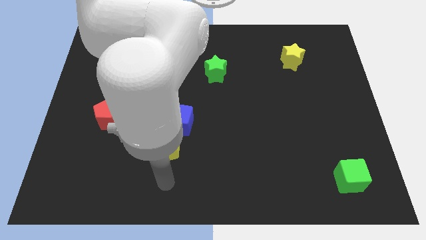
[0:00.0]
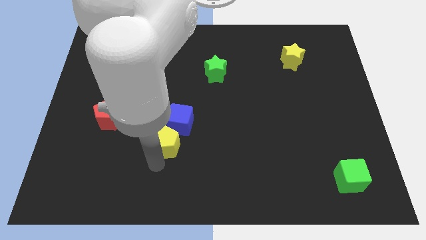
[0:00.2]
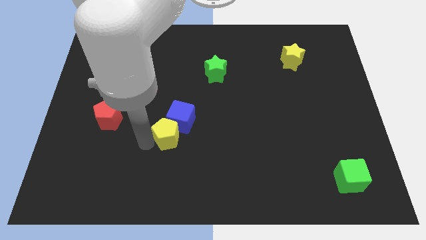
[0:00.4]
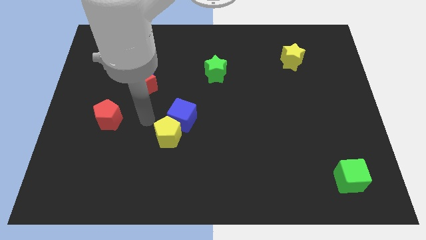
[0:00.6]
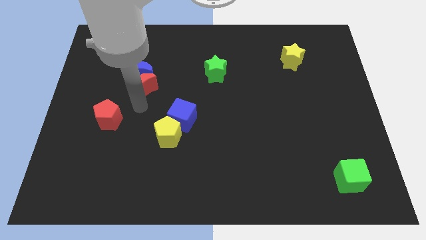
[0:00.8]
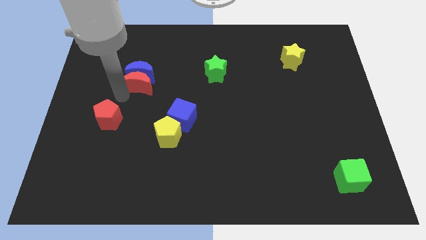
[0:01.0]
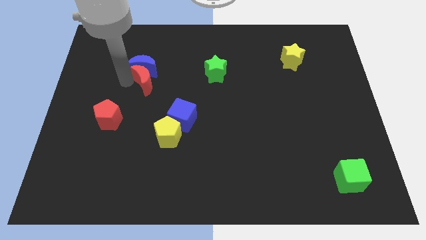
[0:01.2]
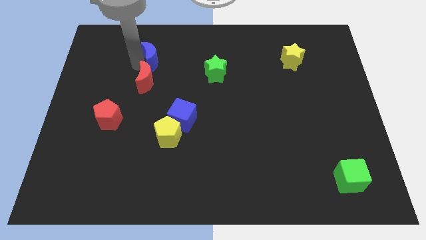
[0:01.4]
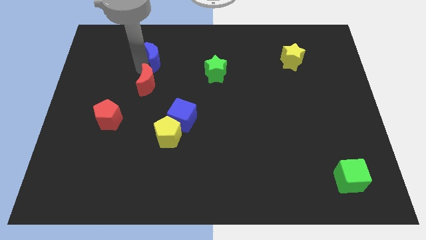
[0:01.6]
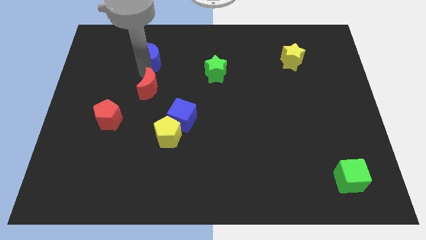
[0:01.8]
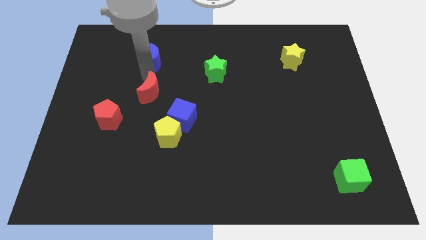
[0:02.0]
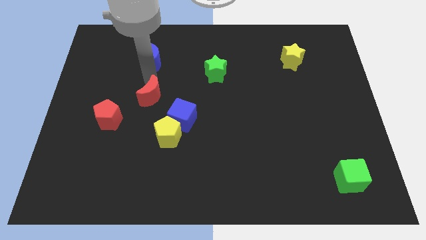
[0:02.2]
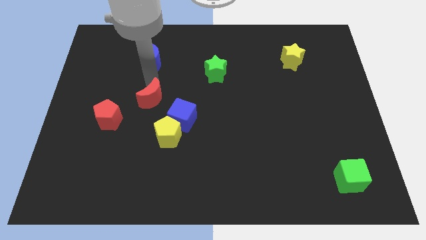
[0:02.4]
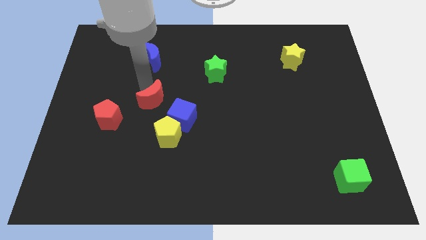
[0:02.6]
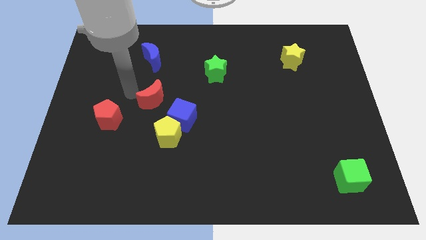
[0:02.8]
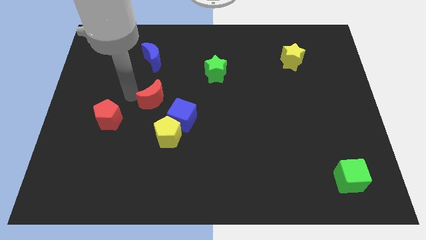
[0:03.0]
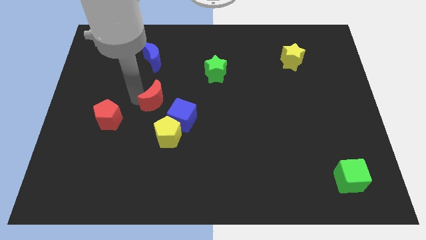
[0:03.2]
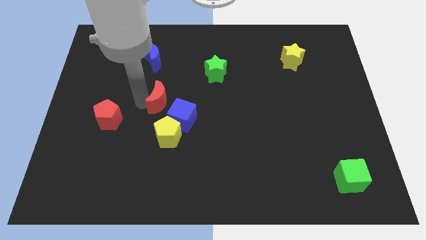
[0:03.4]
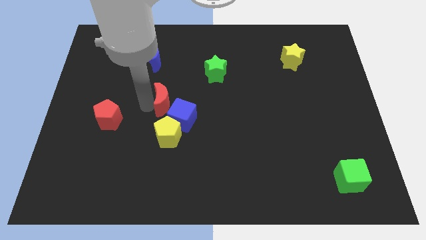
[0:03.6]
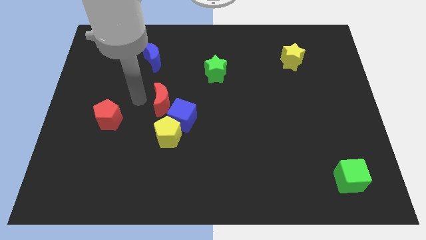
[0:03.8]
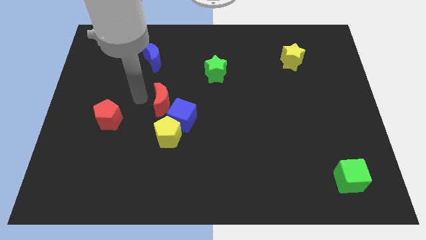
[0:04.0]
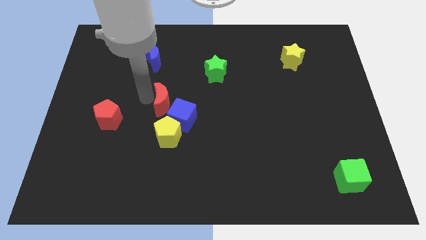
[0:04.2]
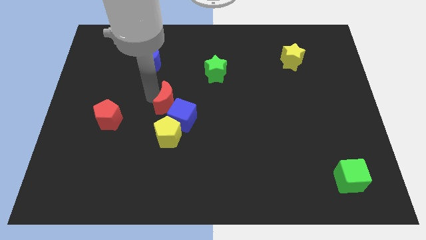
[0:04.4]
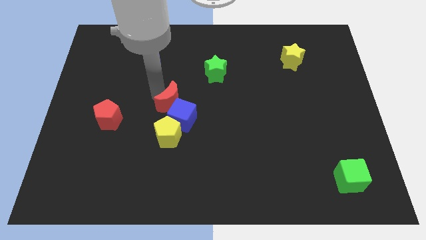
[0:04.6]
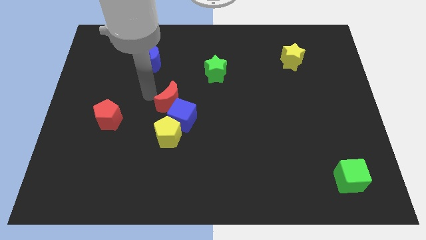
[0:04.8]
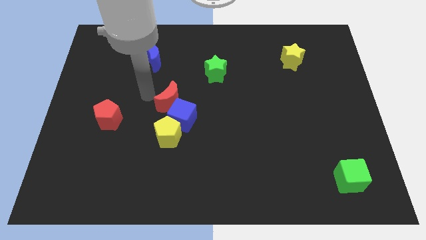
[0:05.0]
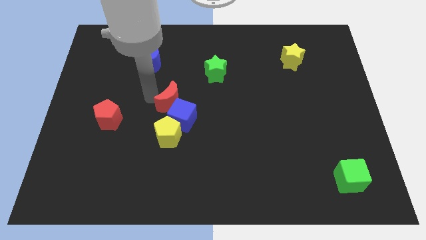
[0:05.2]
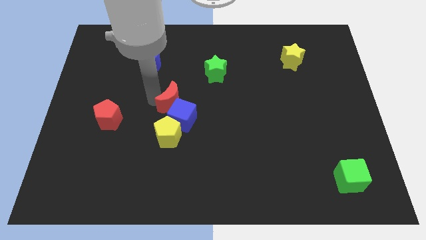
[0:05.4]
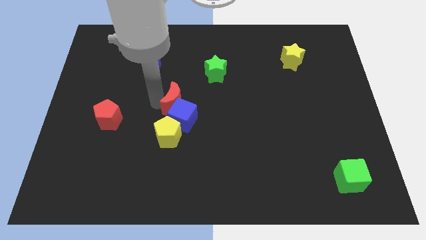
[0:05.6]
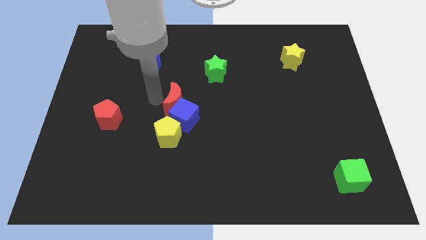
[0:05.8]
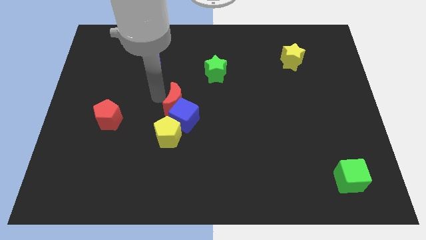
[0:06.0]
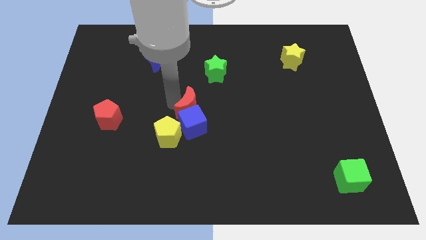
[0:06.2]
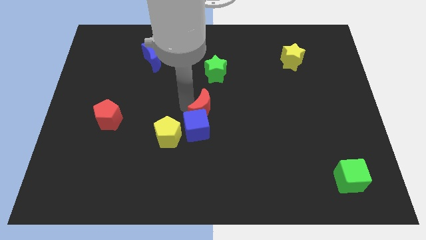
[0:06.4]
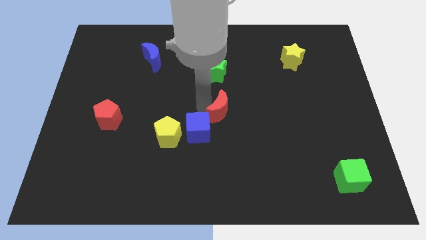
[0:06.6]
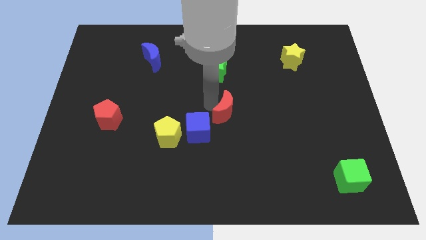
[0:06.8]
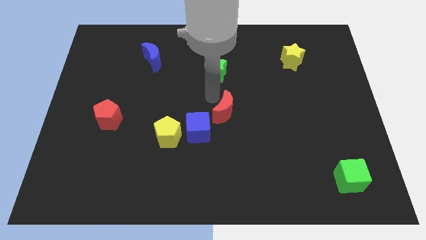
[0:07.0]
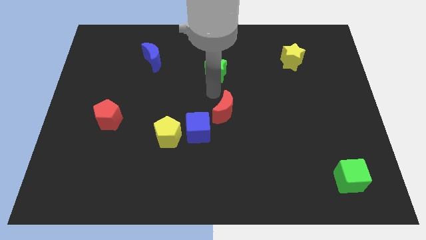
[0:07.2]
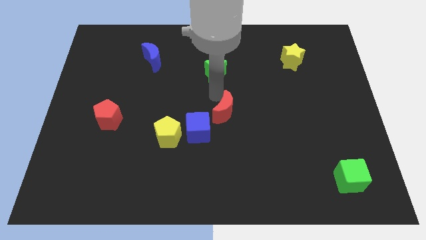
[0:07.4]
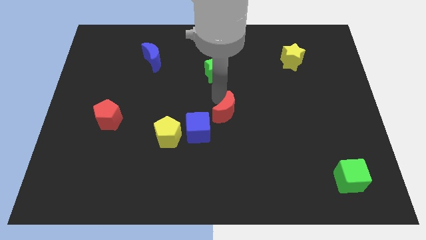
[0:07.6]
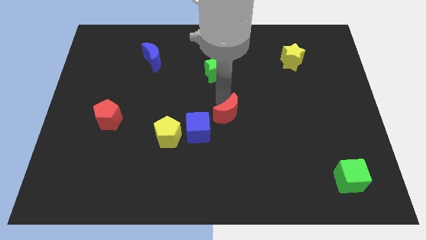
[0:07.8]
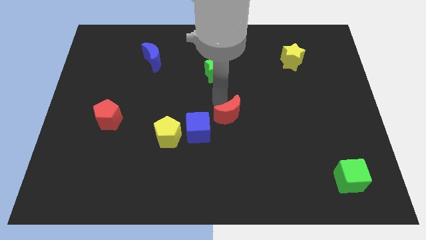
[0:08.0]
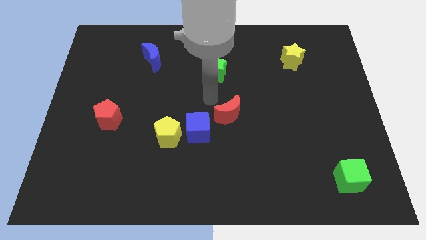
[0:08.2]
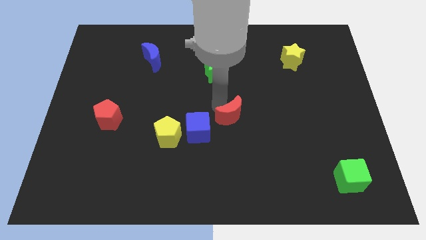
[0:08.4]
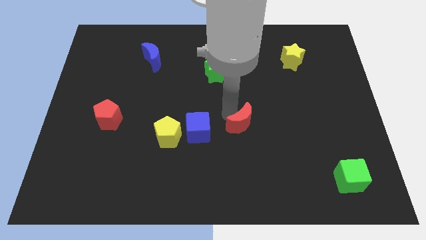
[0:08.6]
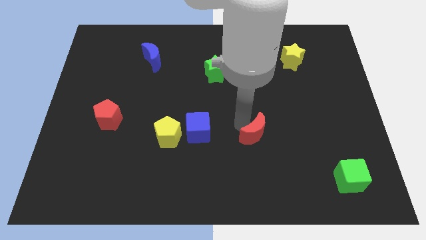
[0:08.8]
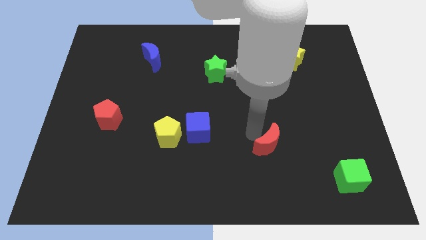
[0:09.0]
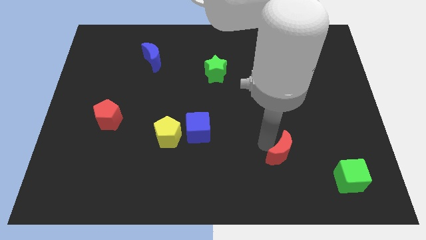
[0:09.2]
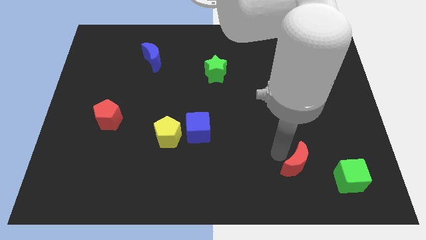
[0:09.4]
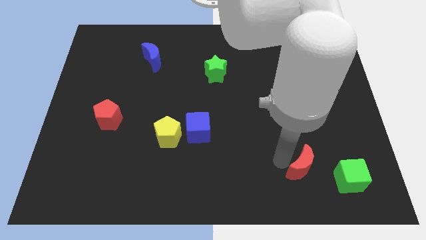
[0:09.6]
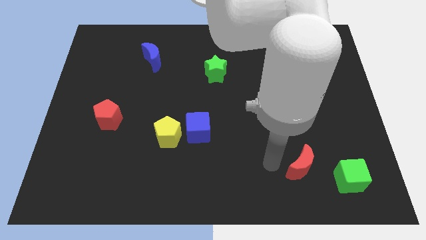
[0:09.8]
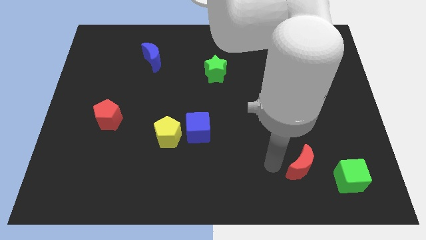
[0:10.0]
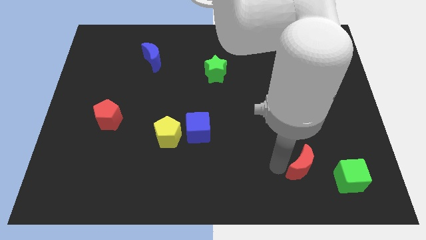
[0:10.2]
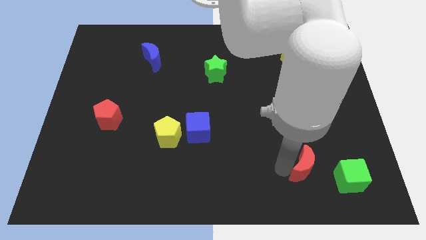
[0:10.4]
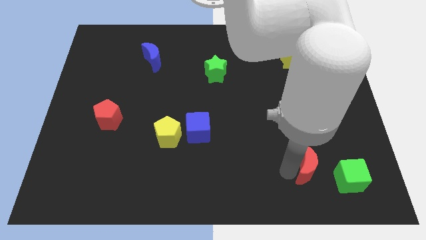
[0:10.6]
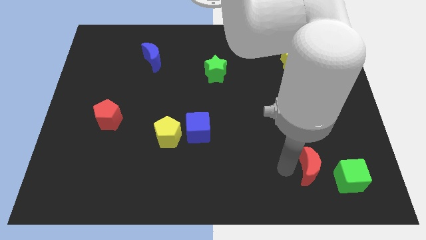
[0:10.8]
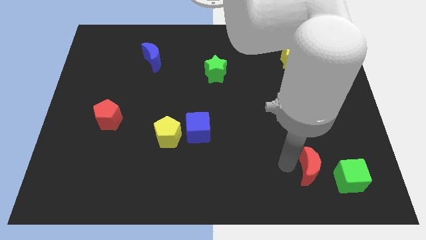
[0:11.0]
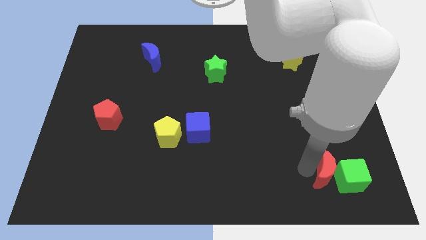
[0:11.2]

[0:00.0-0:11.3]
put the red moon close to the green cube

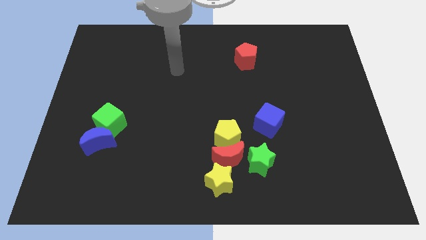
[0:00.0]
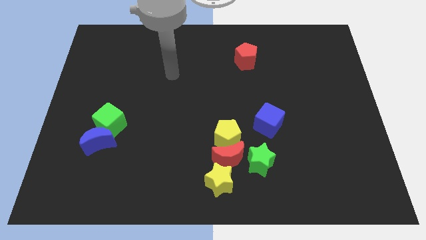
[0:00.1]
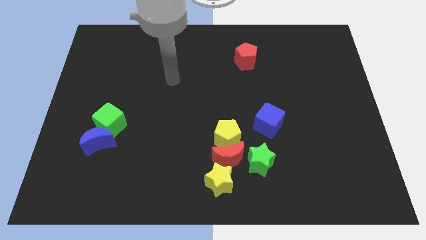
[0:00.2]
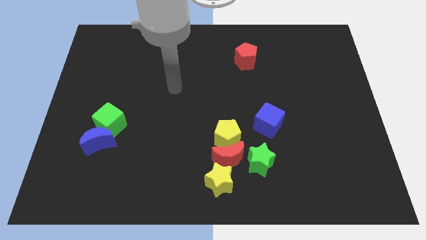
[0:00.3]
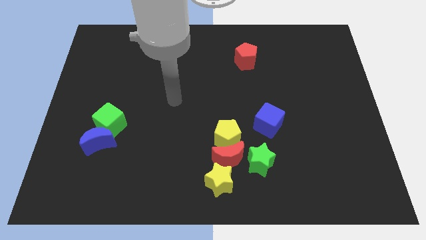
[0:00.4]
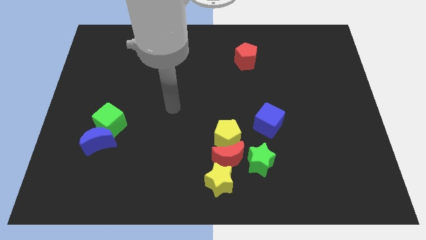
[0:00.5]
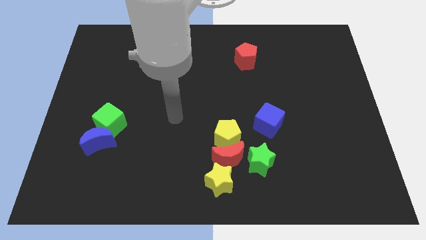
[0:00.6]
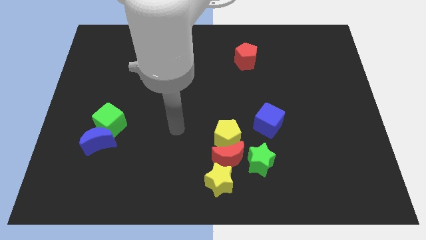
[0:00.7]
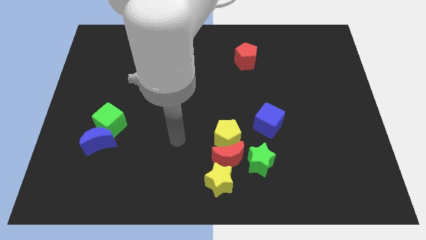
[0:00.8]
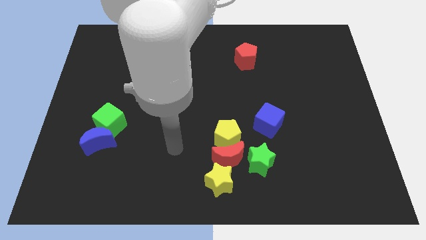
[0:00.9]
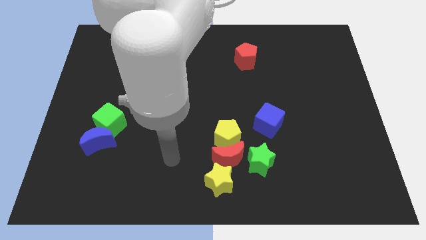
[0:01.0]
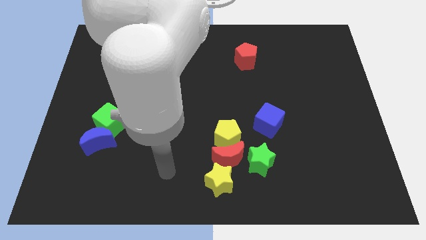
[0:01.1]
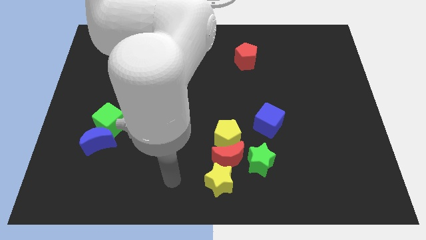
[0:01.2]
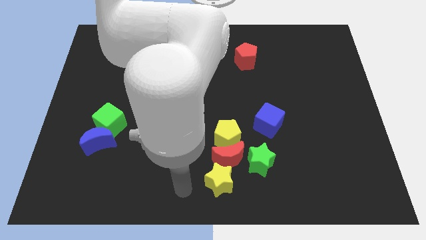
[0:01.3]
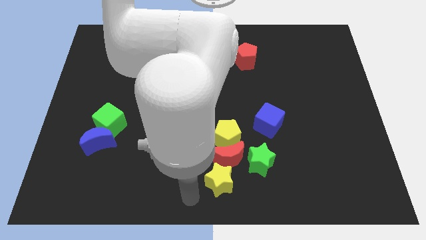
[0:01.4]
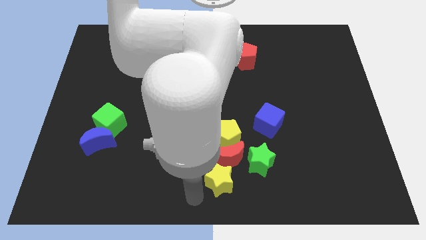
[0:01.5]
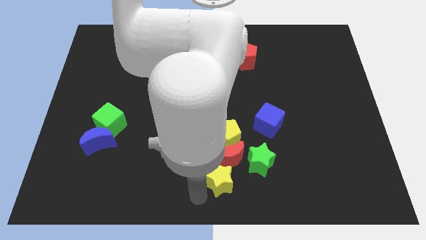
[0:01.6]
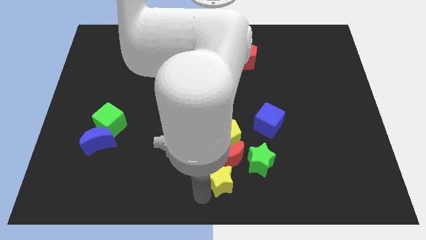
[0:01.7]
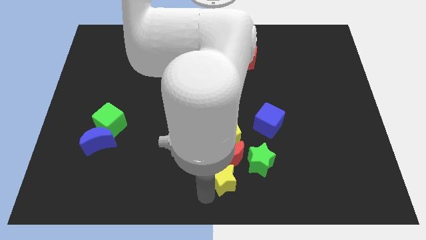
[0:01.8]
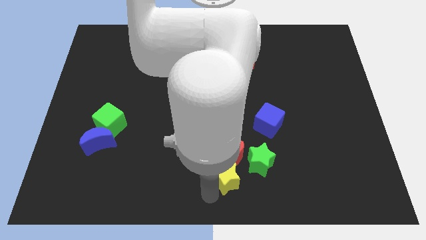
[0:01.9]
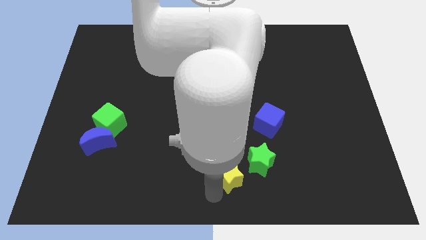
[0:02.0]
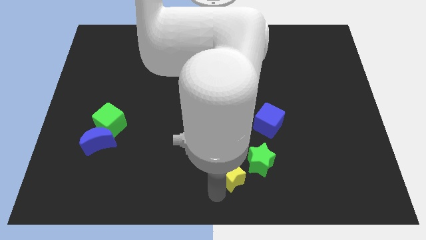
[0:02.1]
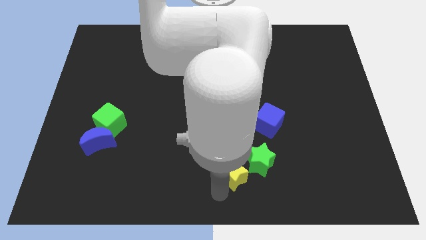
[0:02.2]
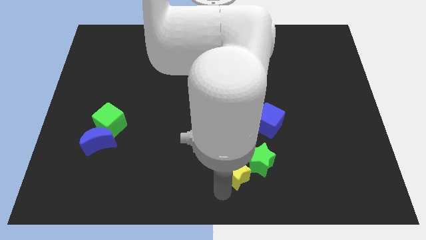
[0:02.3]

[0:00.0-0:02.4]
move the yellow star next to the green star
